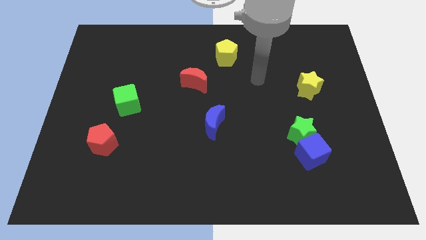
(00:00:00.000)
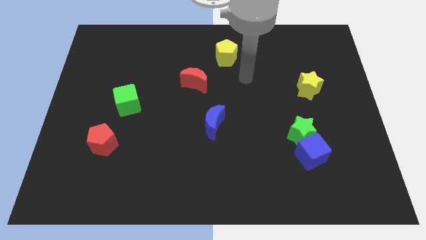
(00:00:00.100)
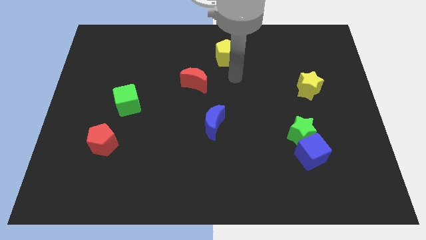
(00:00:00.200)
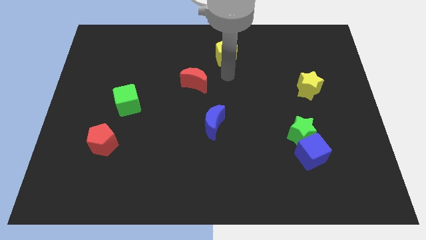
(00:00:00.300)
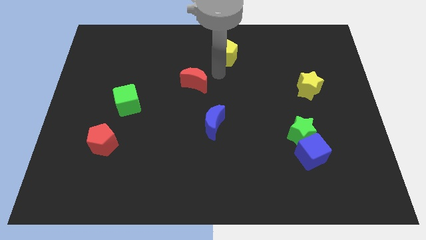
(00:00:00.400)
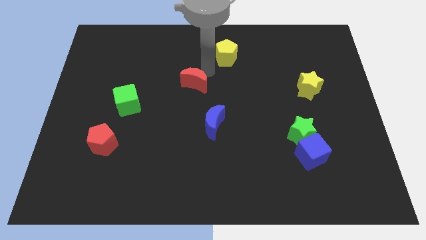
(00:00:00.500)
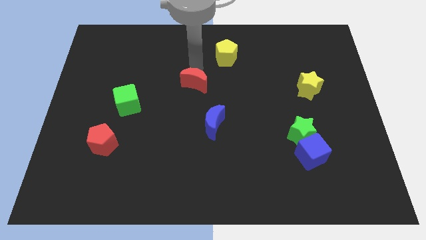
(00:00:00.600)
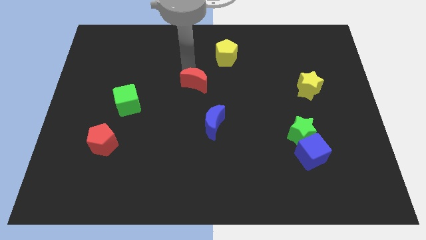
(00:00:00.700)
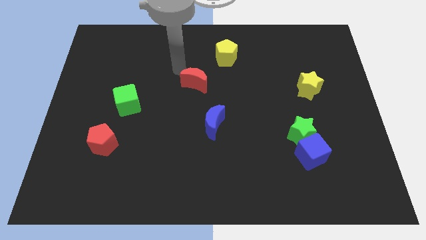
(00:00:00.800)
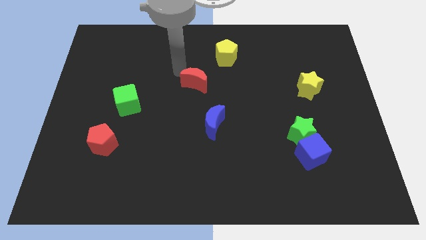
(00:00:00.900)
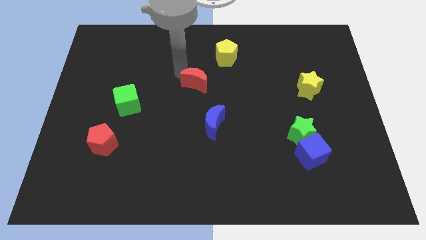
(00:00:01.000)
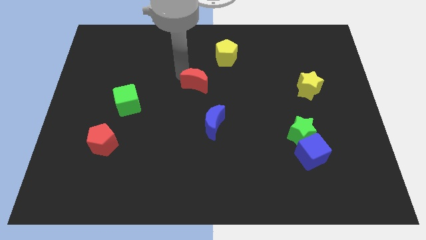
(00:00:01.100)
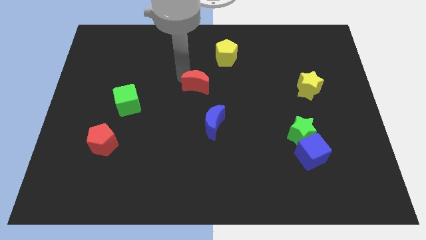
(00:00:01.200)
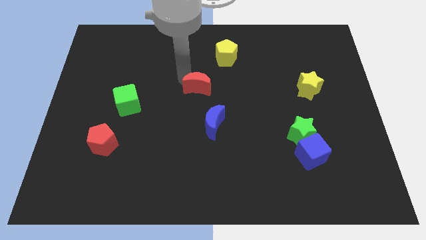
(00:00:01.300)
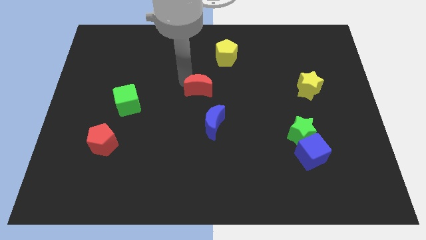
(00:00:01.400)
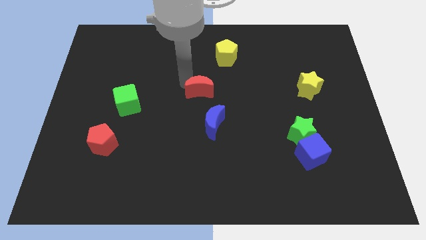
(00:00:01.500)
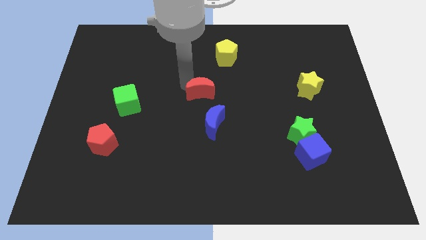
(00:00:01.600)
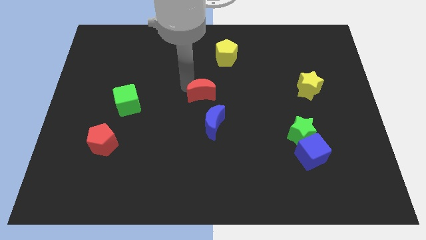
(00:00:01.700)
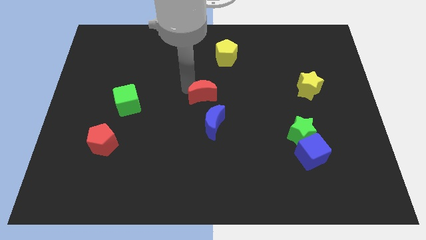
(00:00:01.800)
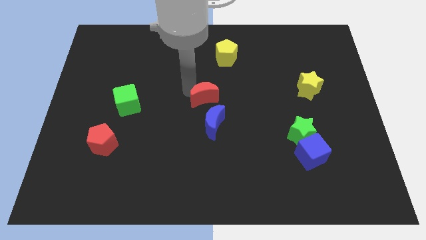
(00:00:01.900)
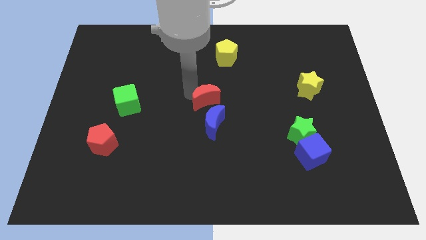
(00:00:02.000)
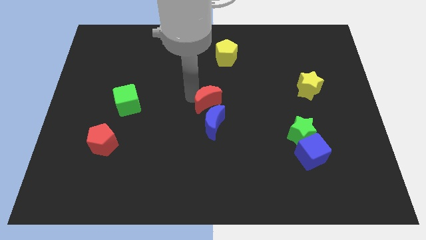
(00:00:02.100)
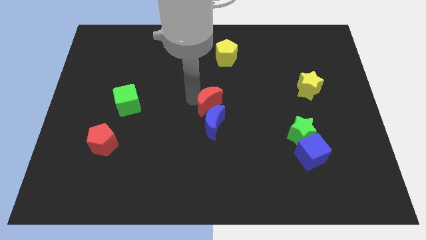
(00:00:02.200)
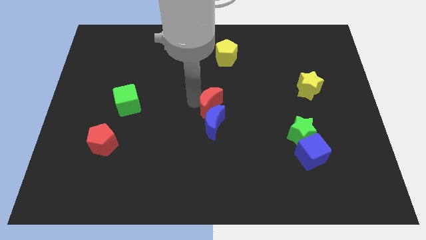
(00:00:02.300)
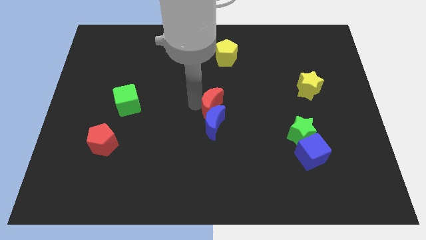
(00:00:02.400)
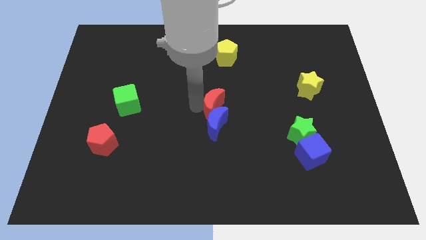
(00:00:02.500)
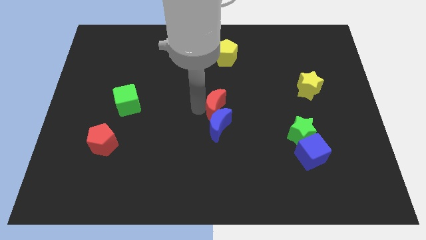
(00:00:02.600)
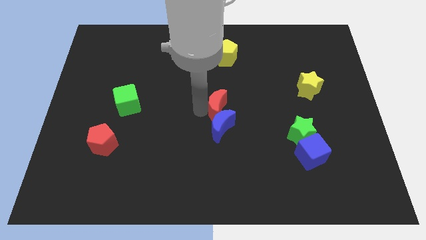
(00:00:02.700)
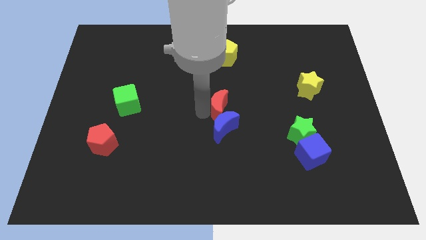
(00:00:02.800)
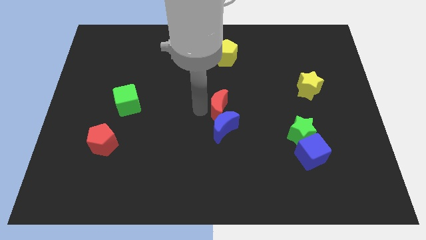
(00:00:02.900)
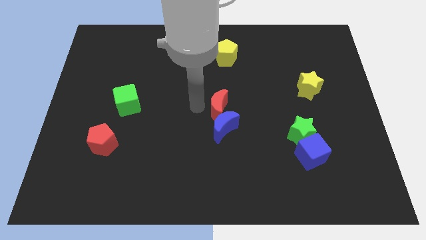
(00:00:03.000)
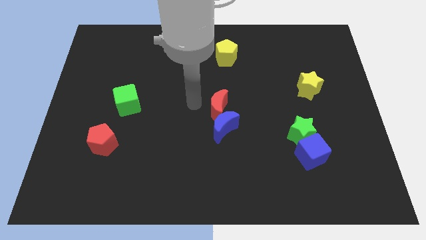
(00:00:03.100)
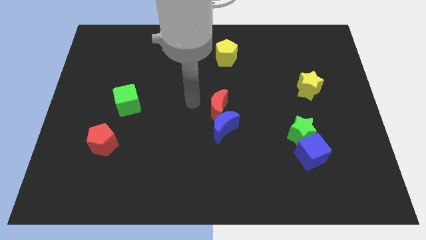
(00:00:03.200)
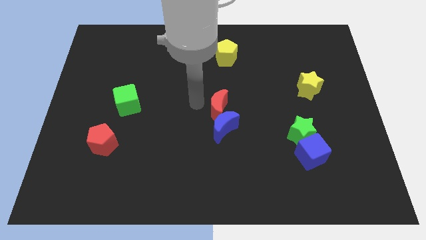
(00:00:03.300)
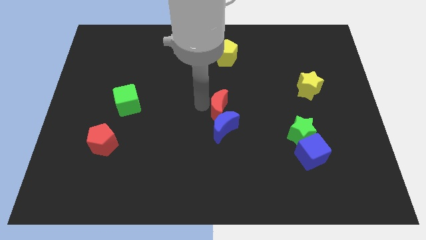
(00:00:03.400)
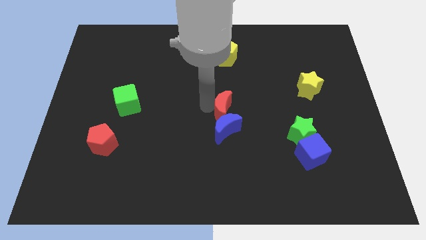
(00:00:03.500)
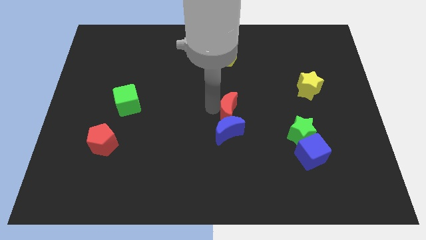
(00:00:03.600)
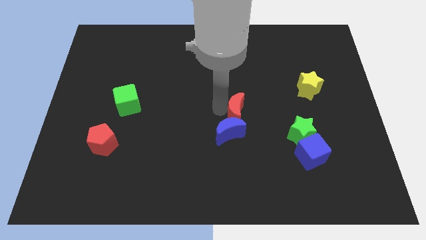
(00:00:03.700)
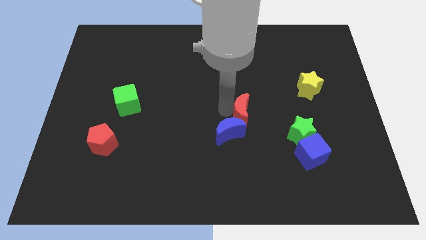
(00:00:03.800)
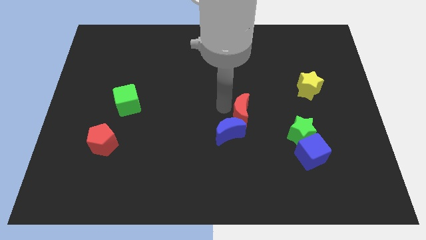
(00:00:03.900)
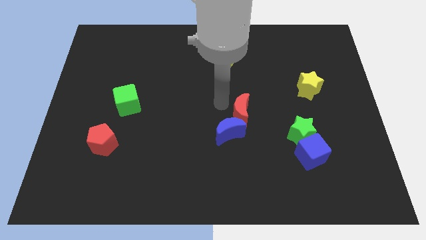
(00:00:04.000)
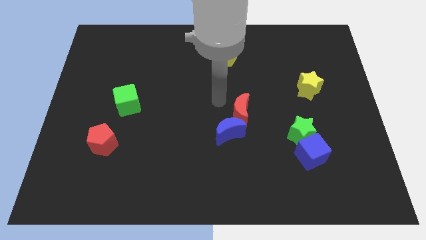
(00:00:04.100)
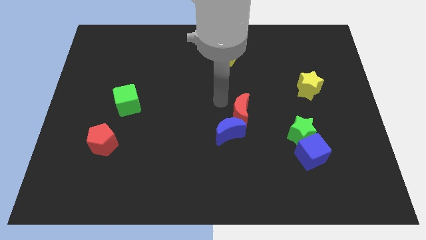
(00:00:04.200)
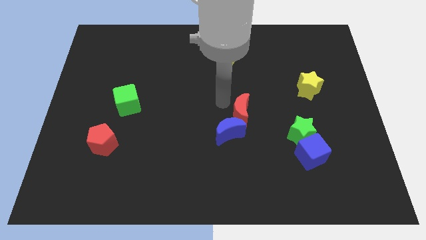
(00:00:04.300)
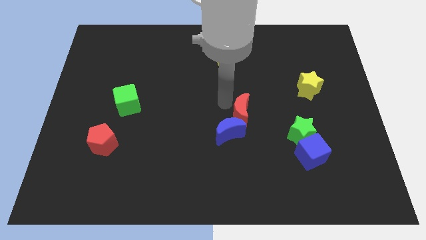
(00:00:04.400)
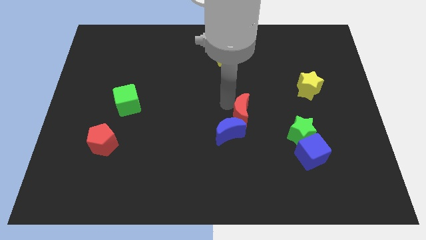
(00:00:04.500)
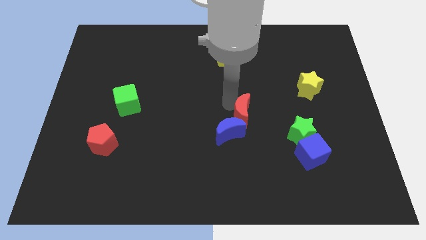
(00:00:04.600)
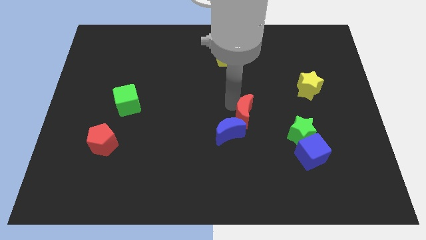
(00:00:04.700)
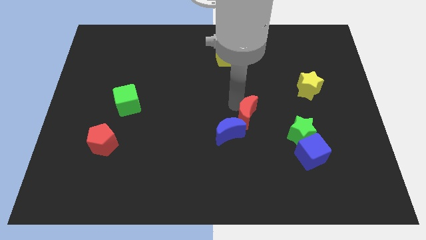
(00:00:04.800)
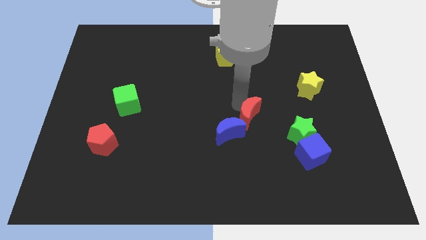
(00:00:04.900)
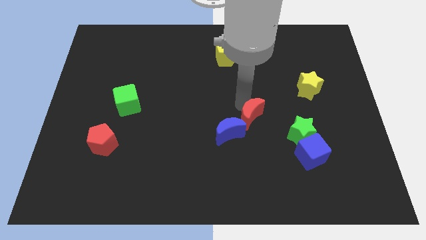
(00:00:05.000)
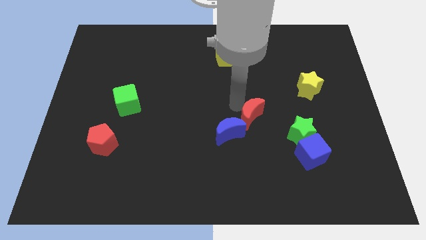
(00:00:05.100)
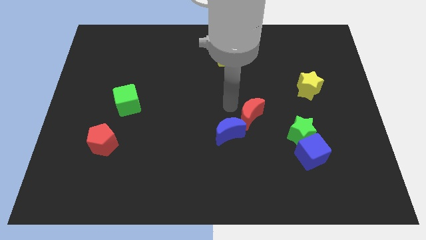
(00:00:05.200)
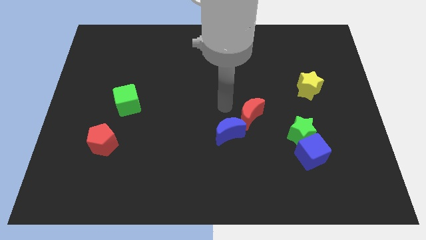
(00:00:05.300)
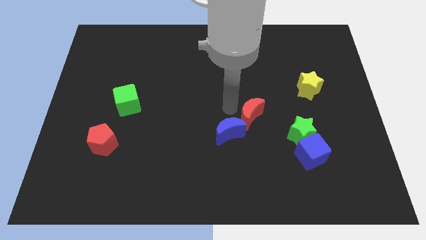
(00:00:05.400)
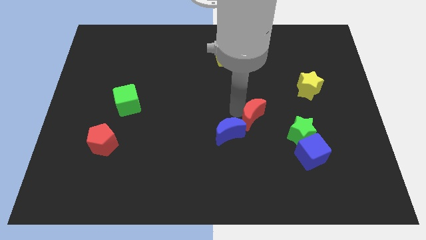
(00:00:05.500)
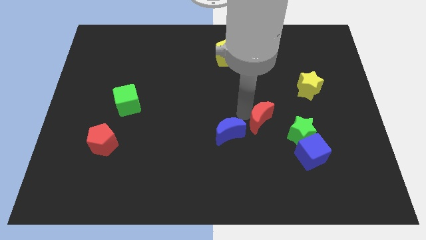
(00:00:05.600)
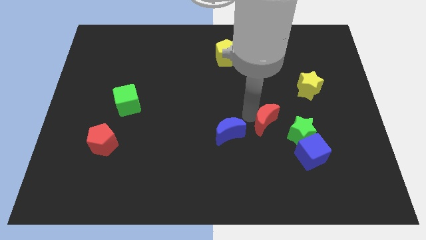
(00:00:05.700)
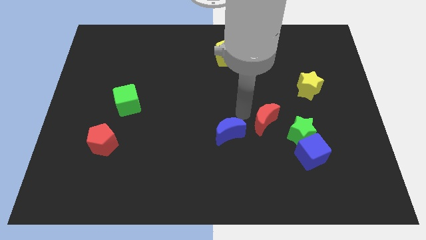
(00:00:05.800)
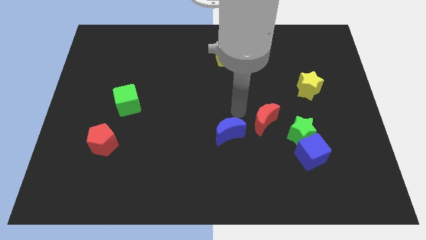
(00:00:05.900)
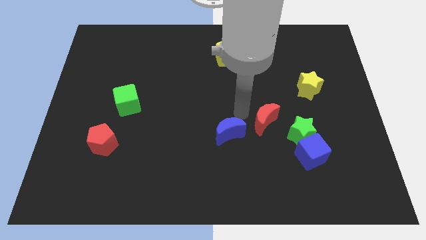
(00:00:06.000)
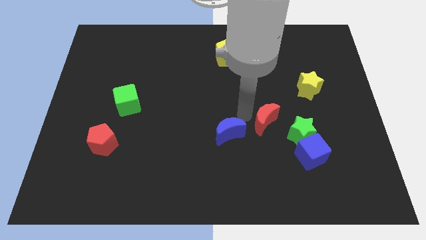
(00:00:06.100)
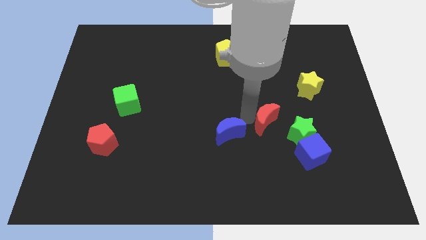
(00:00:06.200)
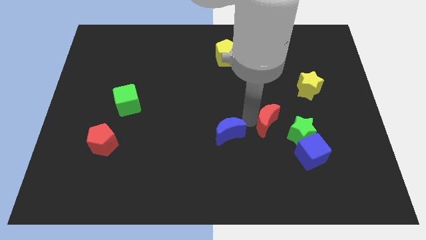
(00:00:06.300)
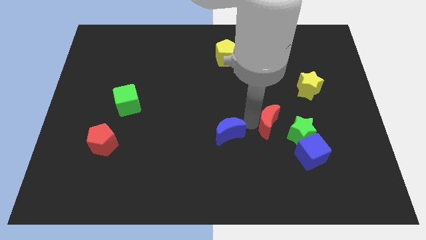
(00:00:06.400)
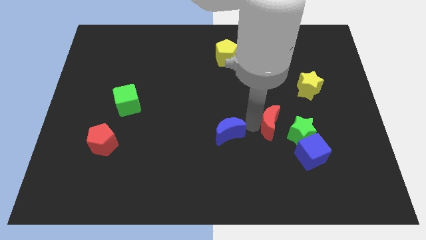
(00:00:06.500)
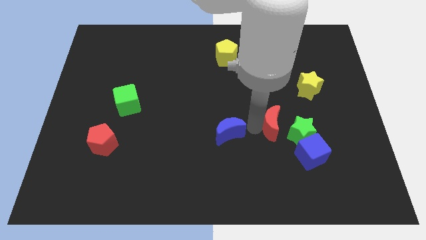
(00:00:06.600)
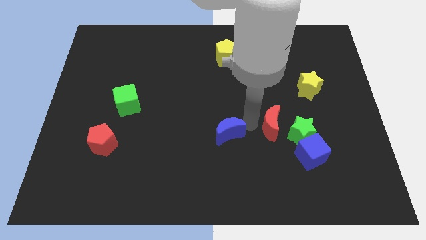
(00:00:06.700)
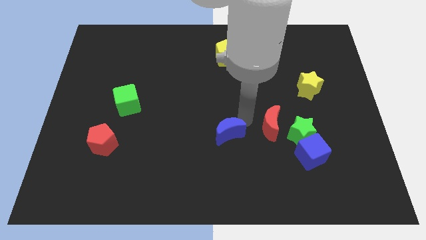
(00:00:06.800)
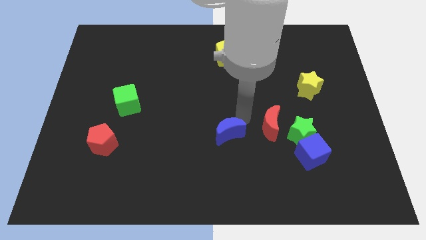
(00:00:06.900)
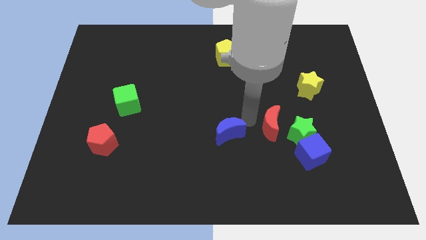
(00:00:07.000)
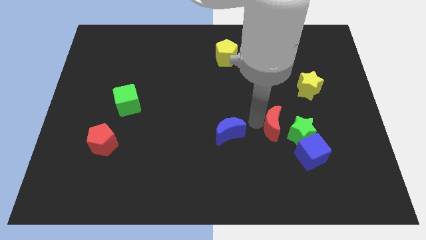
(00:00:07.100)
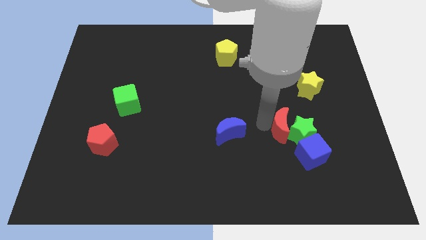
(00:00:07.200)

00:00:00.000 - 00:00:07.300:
slide the red moon to the green star

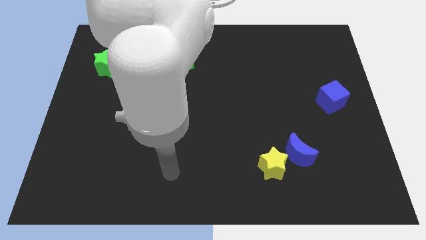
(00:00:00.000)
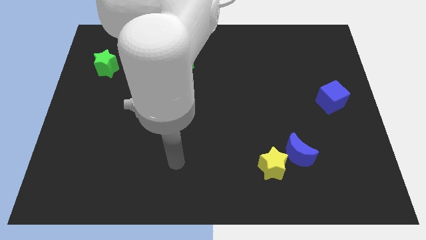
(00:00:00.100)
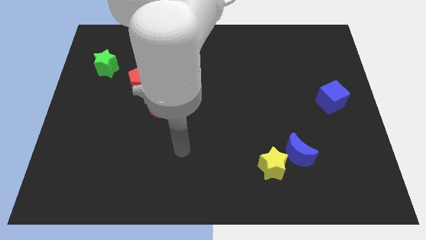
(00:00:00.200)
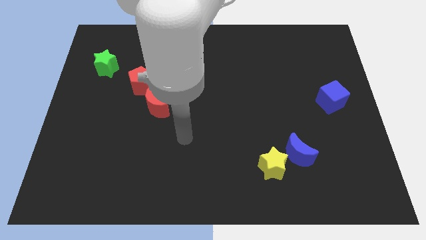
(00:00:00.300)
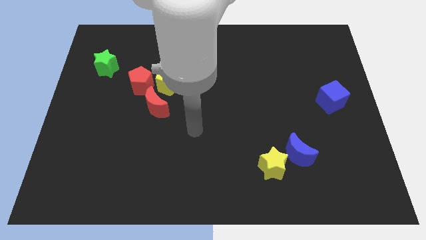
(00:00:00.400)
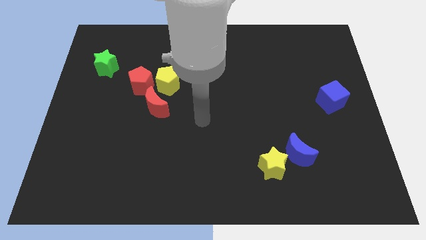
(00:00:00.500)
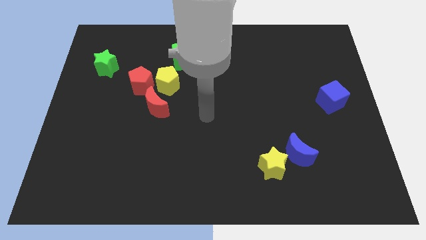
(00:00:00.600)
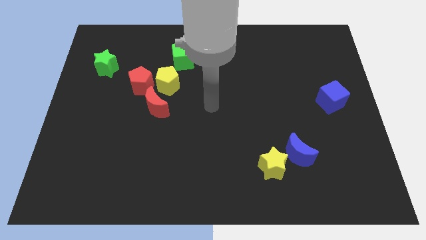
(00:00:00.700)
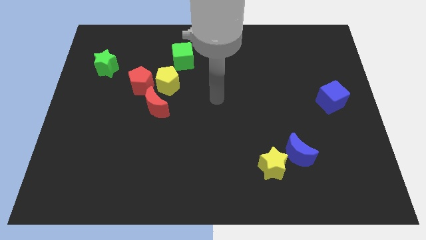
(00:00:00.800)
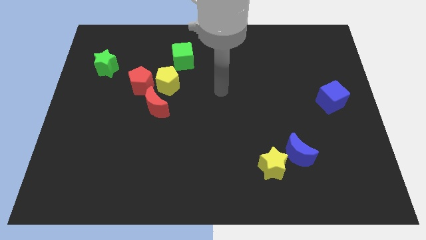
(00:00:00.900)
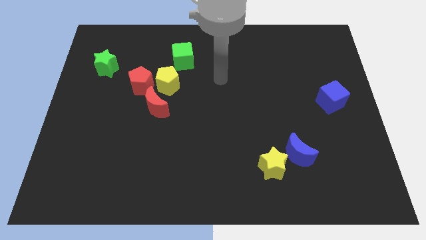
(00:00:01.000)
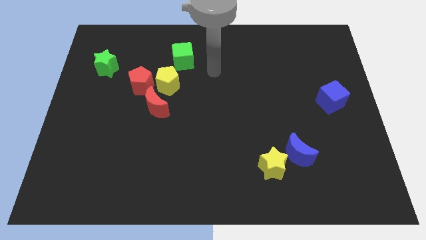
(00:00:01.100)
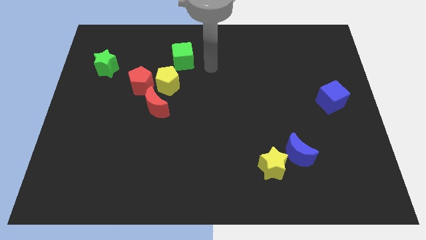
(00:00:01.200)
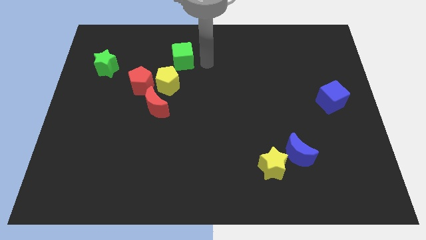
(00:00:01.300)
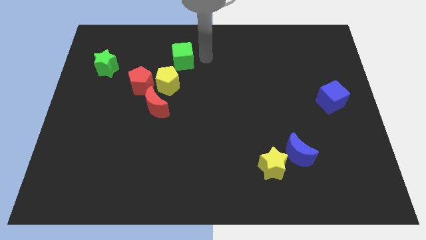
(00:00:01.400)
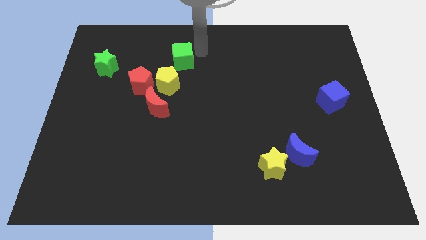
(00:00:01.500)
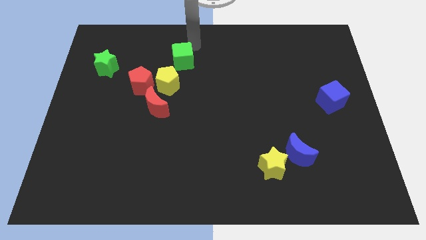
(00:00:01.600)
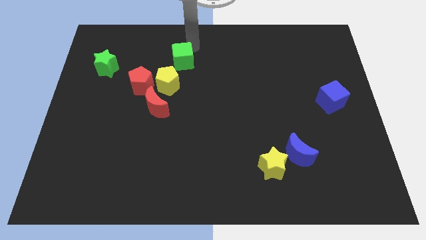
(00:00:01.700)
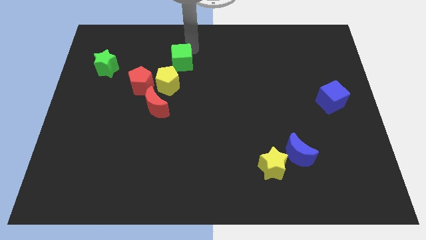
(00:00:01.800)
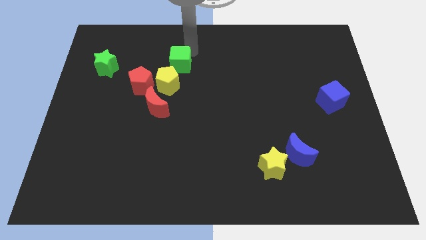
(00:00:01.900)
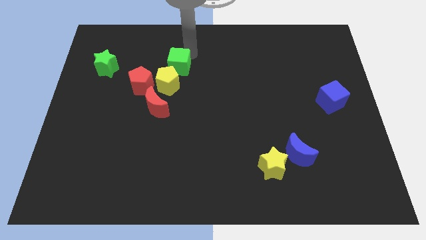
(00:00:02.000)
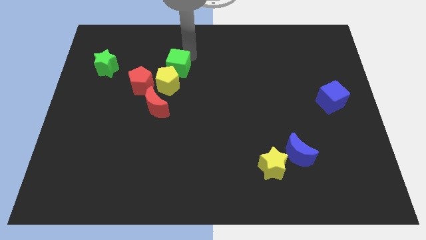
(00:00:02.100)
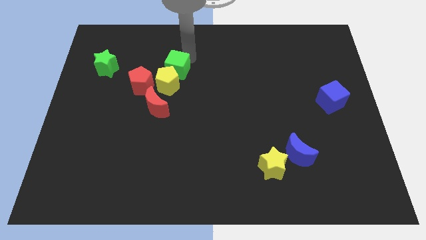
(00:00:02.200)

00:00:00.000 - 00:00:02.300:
slide the green cube towards the yellow pentagon
